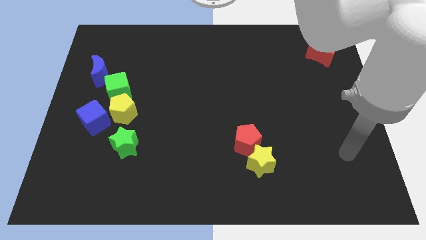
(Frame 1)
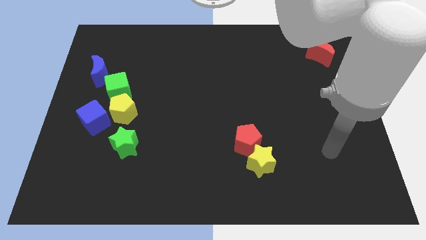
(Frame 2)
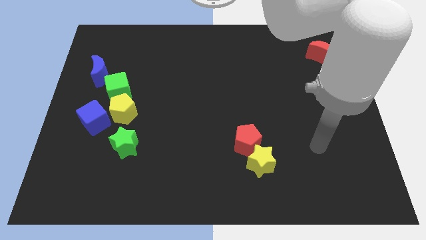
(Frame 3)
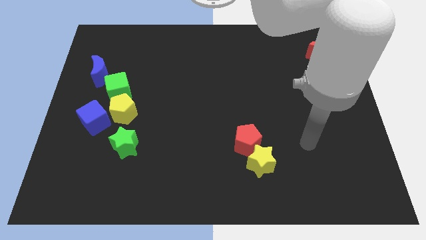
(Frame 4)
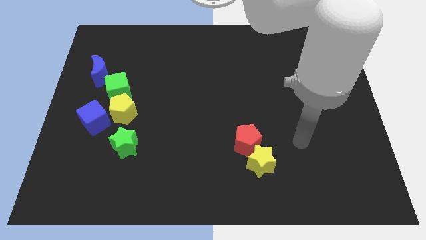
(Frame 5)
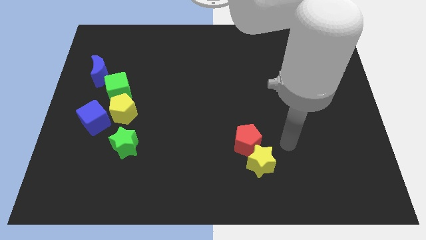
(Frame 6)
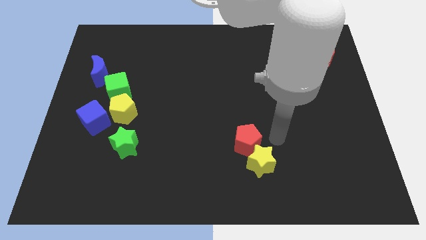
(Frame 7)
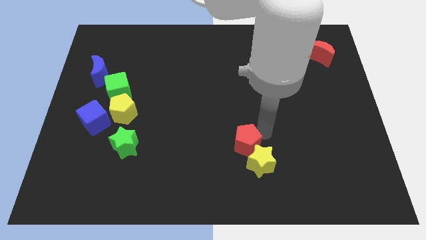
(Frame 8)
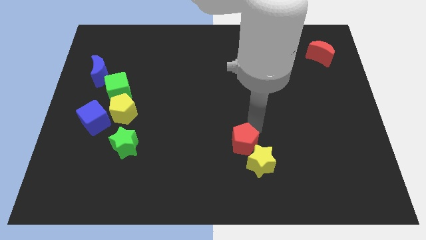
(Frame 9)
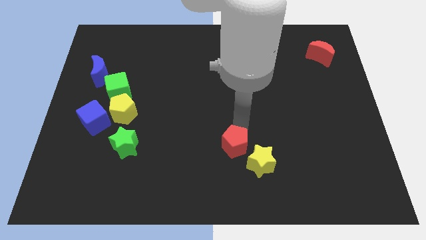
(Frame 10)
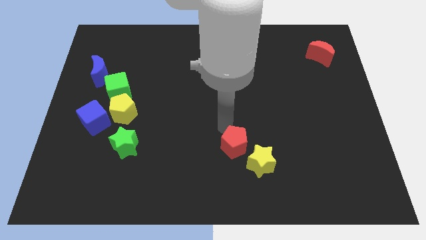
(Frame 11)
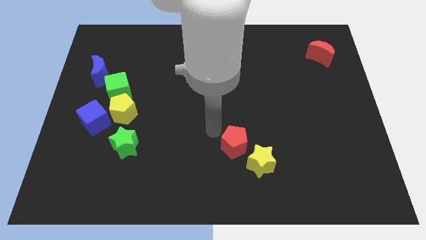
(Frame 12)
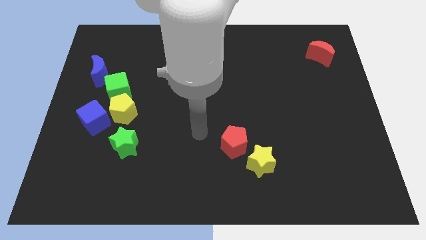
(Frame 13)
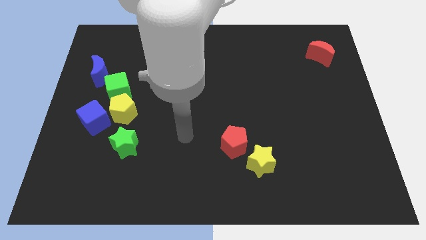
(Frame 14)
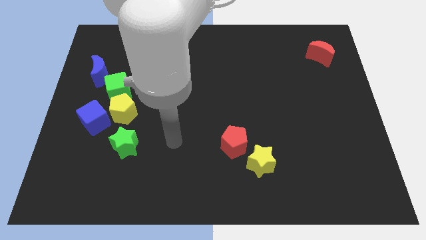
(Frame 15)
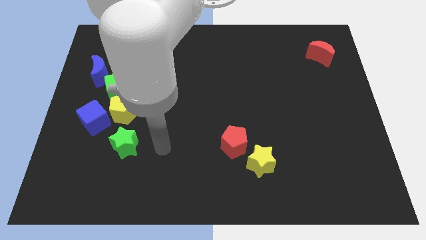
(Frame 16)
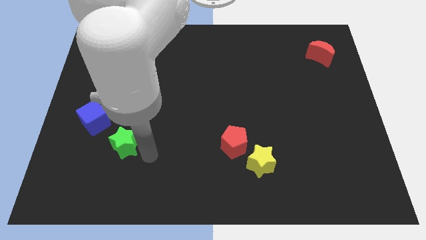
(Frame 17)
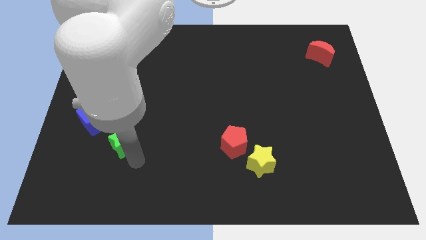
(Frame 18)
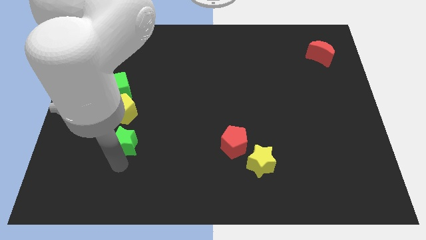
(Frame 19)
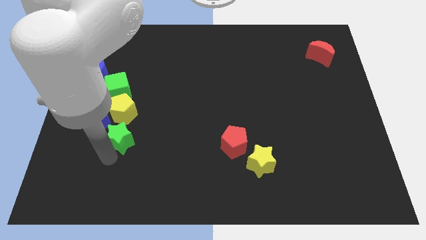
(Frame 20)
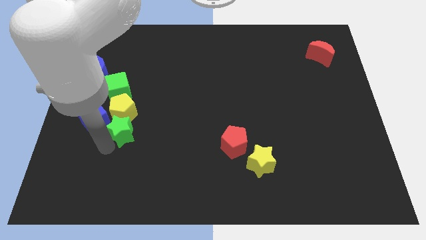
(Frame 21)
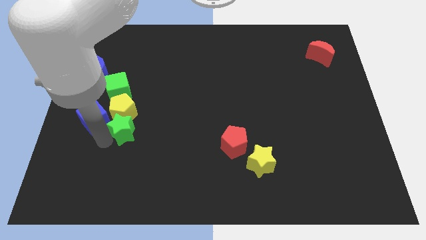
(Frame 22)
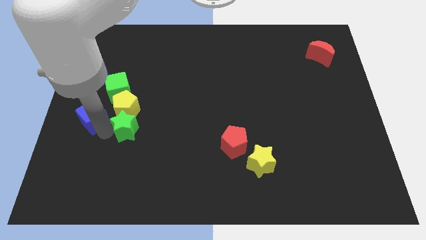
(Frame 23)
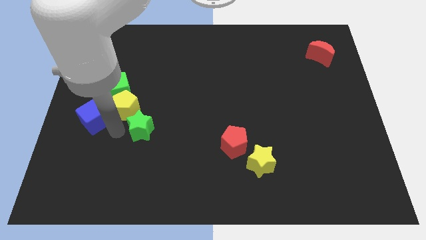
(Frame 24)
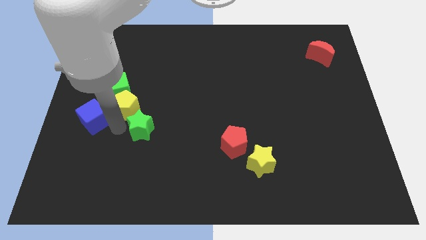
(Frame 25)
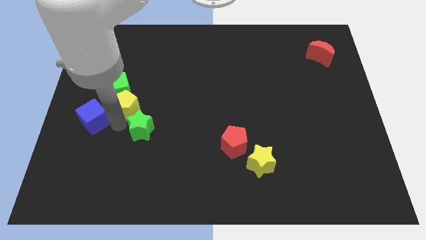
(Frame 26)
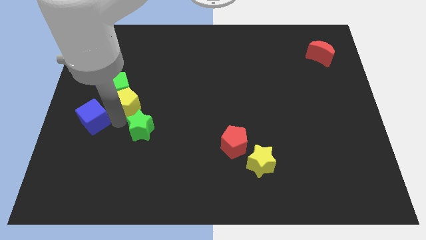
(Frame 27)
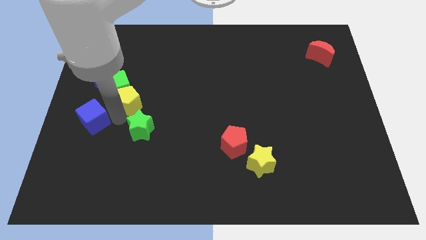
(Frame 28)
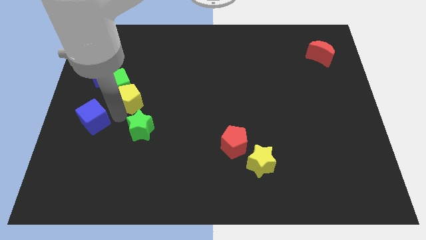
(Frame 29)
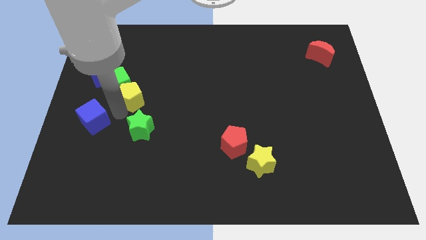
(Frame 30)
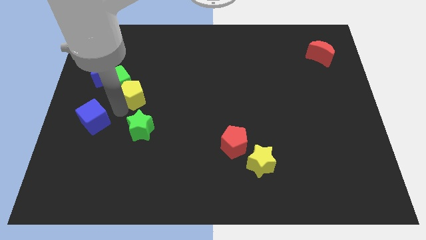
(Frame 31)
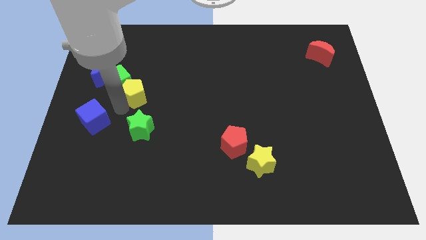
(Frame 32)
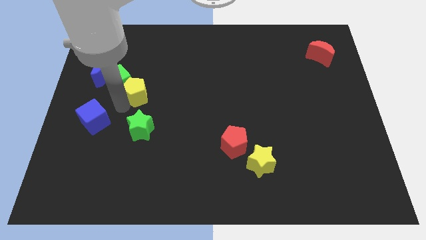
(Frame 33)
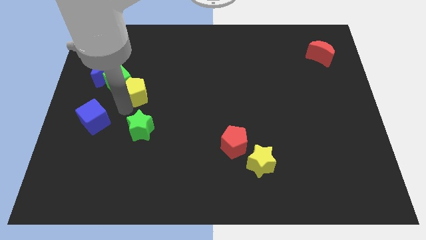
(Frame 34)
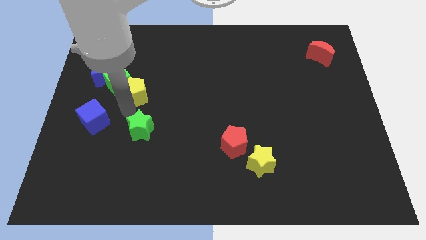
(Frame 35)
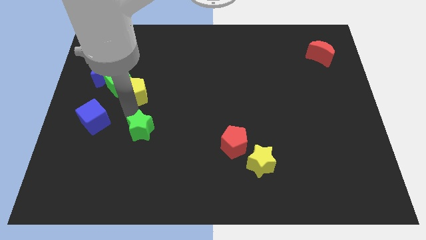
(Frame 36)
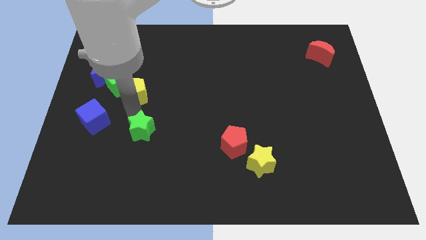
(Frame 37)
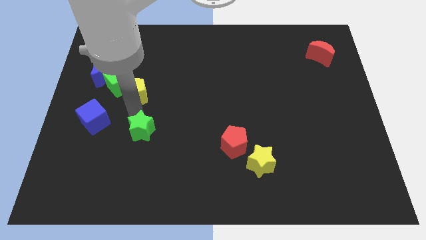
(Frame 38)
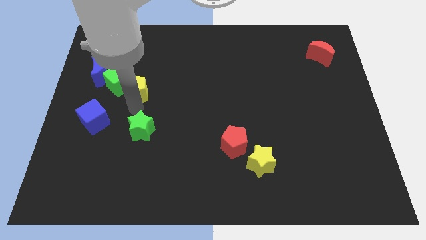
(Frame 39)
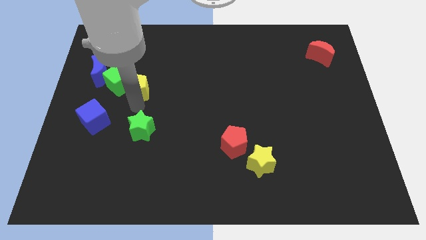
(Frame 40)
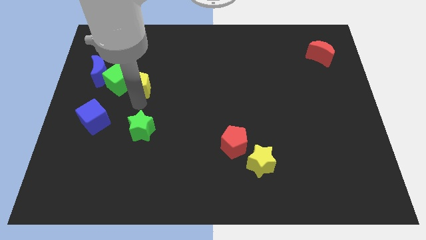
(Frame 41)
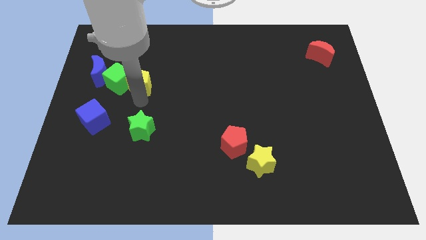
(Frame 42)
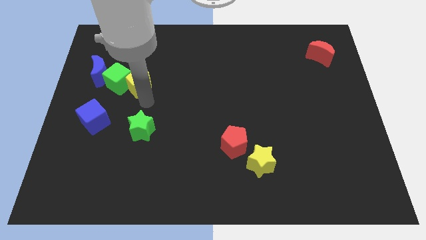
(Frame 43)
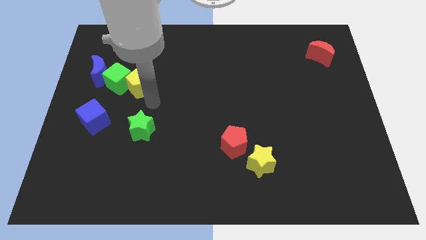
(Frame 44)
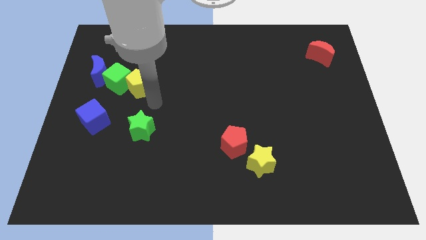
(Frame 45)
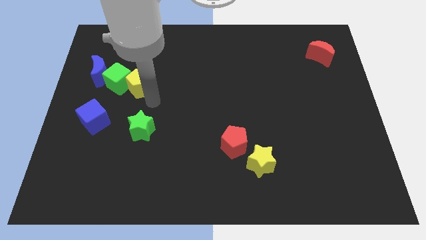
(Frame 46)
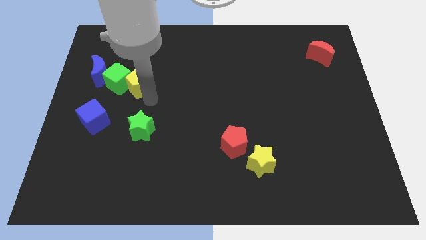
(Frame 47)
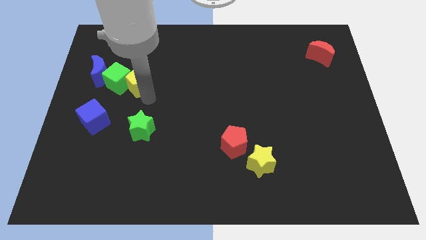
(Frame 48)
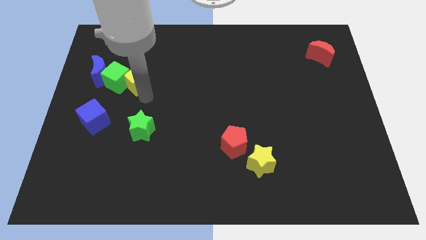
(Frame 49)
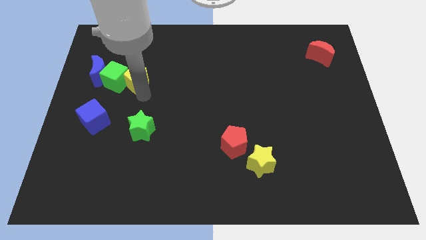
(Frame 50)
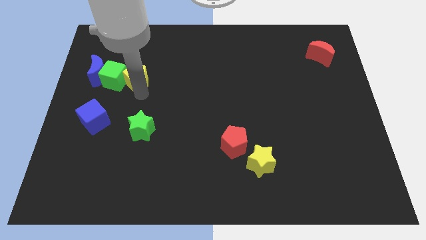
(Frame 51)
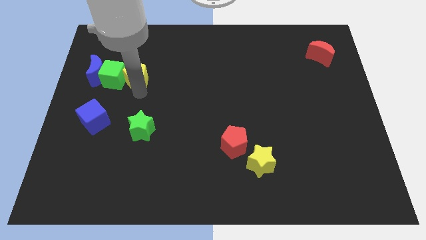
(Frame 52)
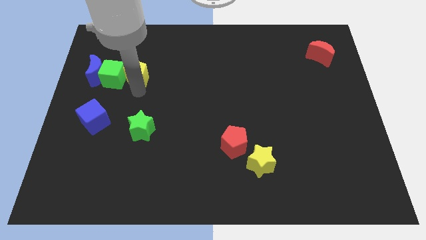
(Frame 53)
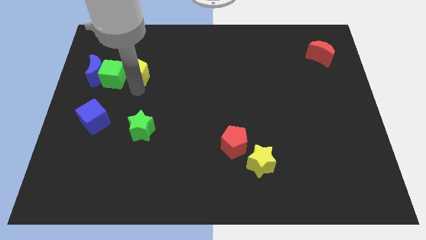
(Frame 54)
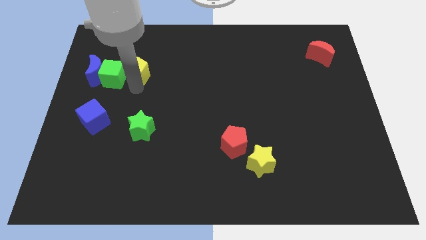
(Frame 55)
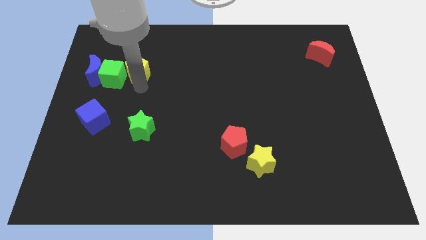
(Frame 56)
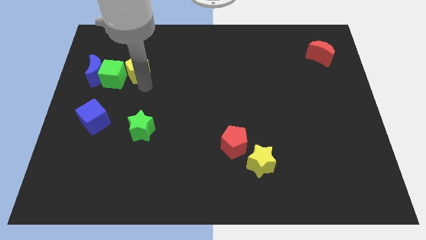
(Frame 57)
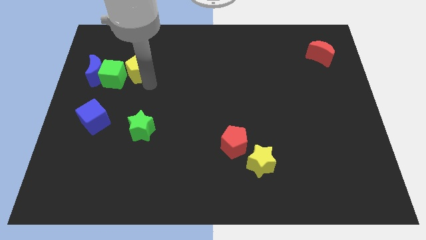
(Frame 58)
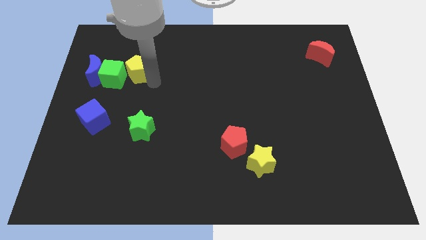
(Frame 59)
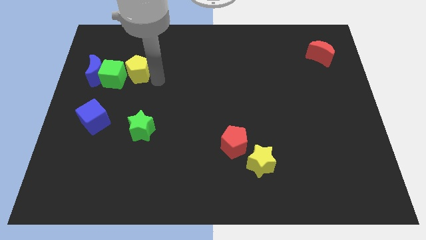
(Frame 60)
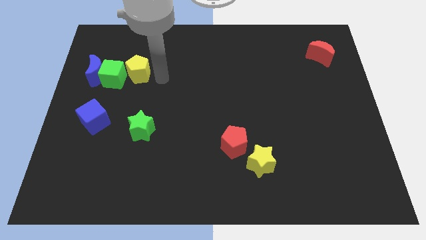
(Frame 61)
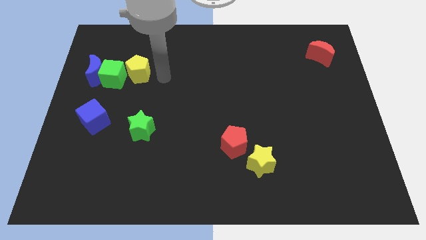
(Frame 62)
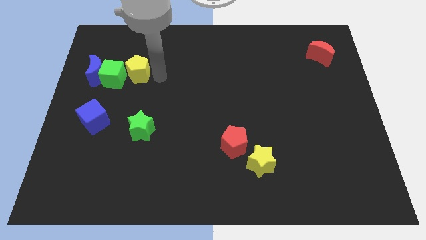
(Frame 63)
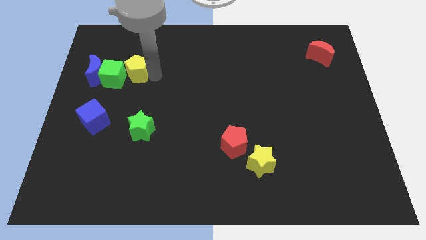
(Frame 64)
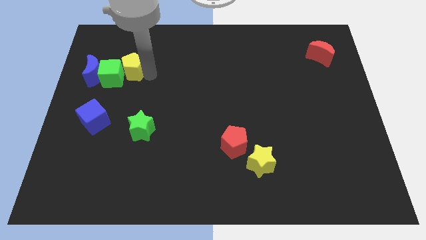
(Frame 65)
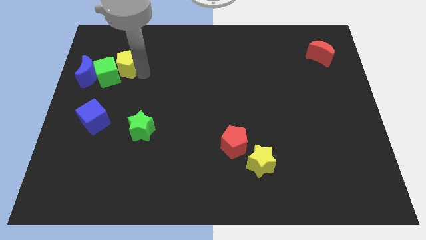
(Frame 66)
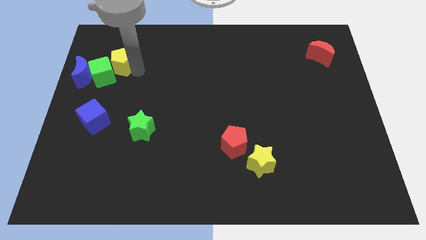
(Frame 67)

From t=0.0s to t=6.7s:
push the yellow pentagon to the top right of the blue moon

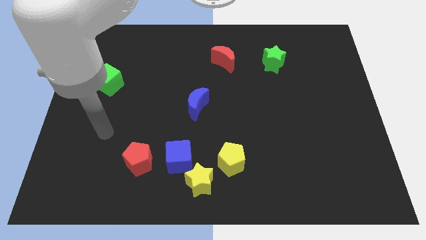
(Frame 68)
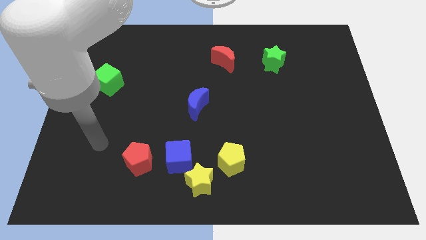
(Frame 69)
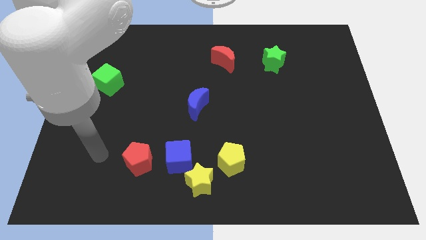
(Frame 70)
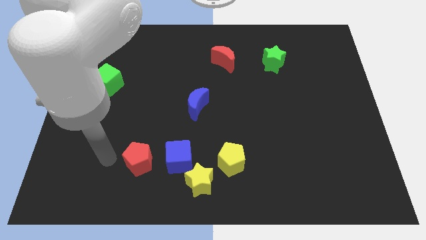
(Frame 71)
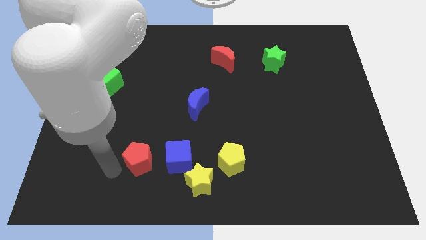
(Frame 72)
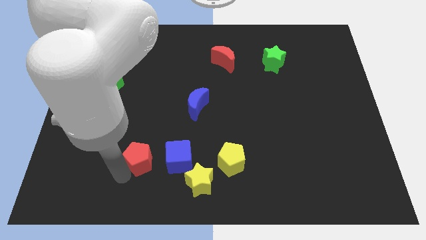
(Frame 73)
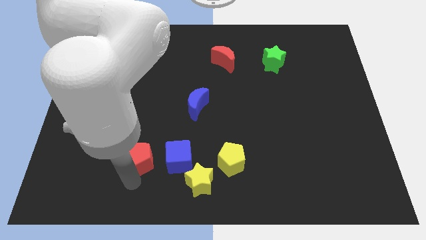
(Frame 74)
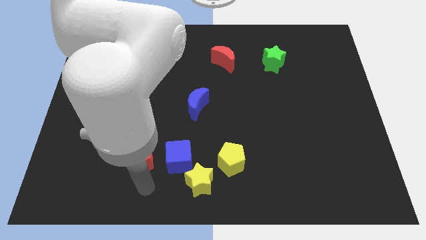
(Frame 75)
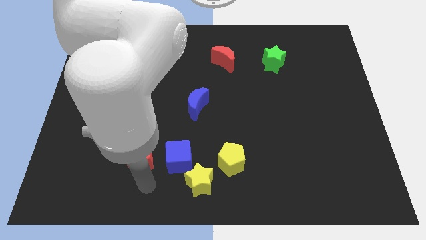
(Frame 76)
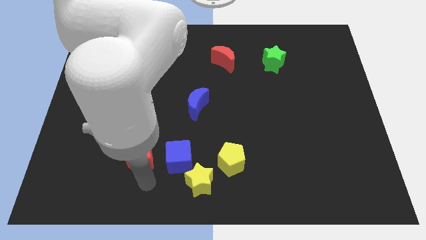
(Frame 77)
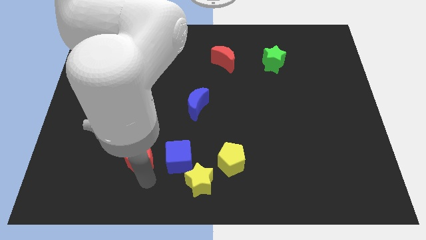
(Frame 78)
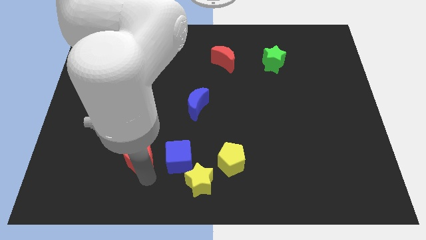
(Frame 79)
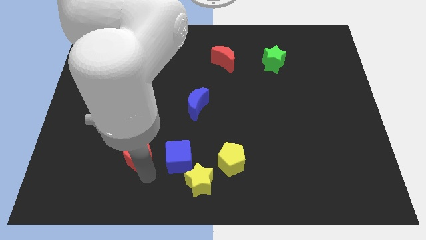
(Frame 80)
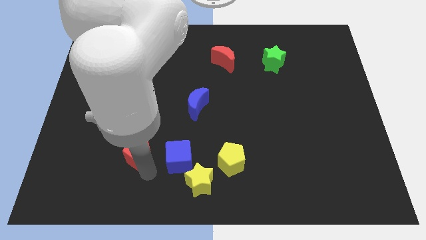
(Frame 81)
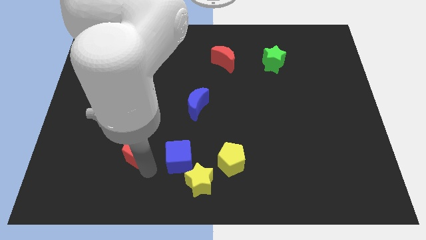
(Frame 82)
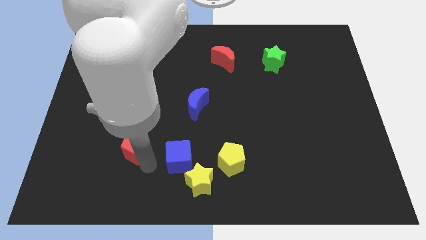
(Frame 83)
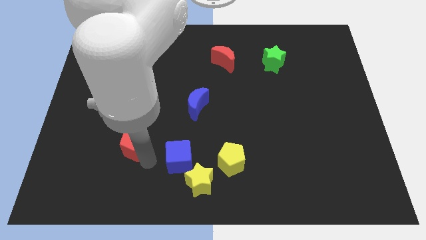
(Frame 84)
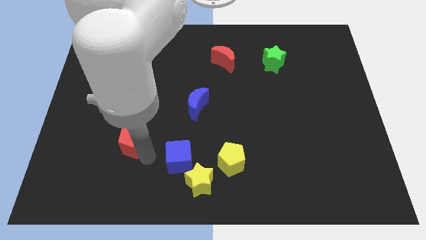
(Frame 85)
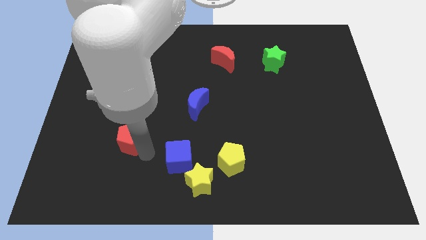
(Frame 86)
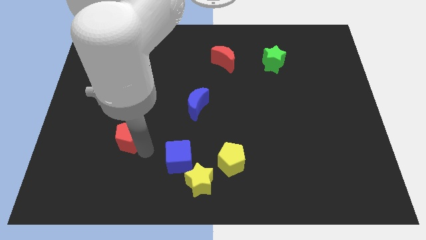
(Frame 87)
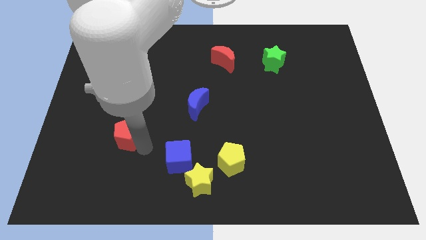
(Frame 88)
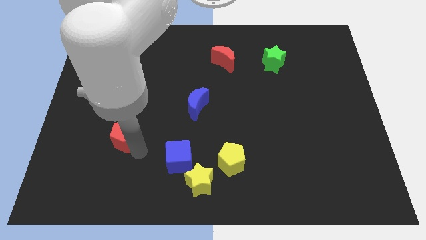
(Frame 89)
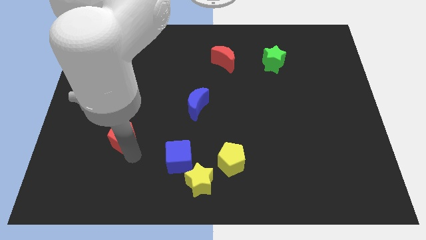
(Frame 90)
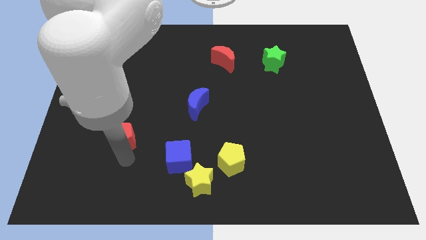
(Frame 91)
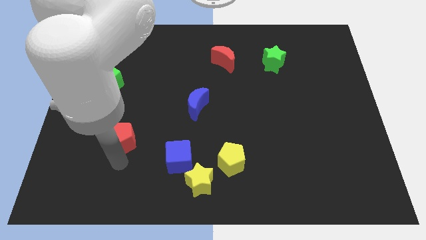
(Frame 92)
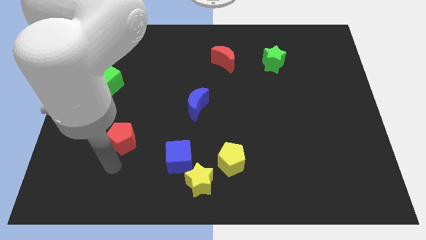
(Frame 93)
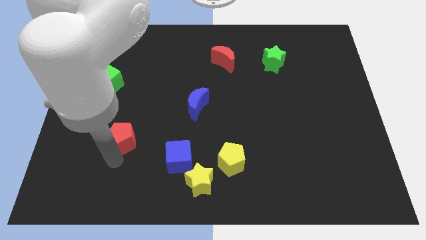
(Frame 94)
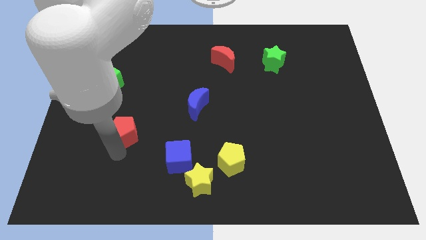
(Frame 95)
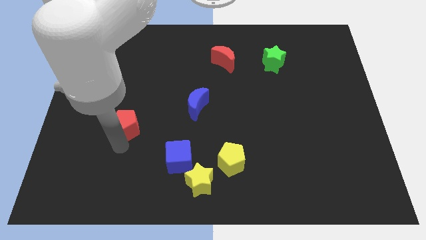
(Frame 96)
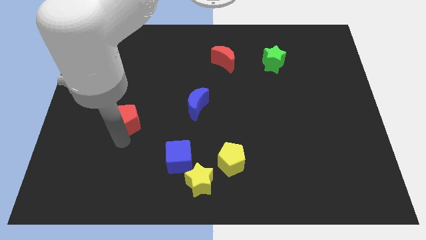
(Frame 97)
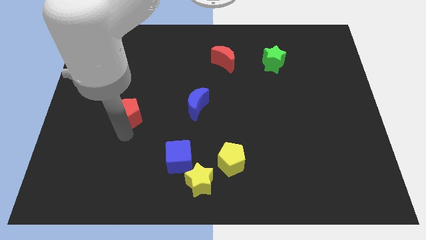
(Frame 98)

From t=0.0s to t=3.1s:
put the red pentagon to the bottom right side of the green cube
